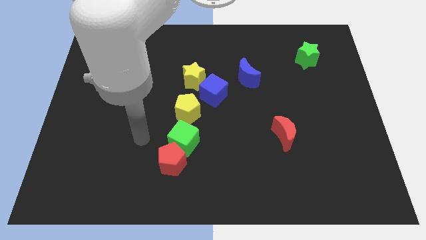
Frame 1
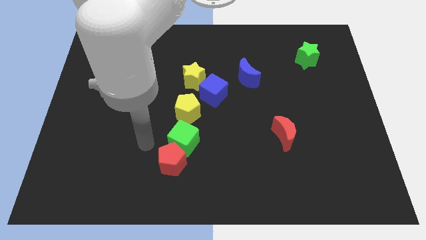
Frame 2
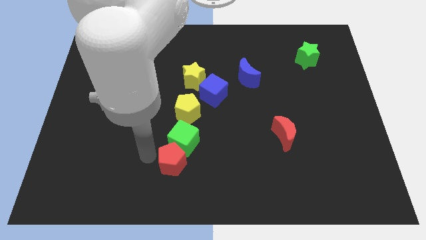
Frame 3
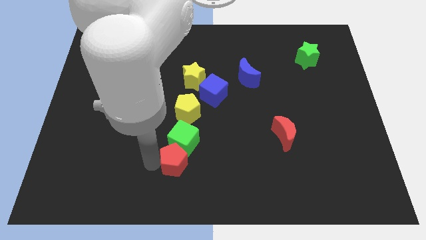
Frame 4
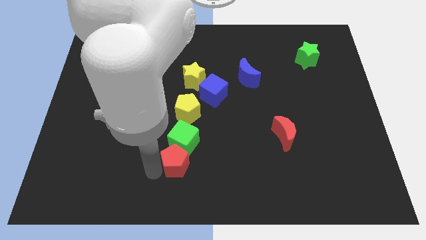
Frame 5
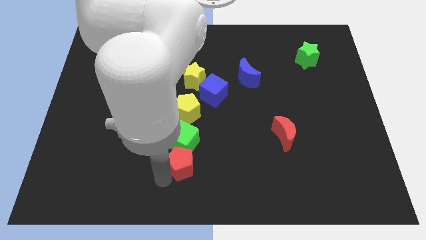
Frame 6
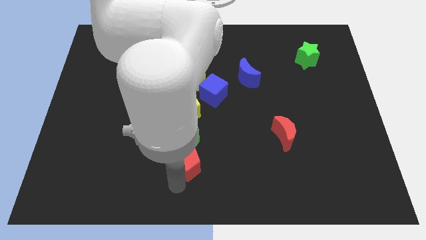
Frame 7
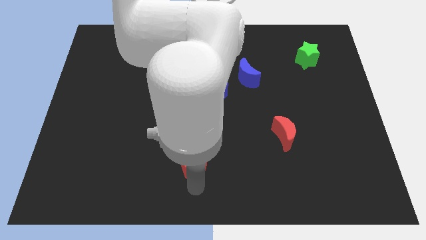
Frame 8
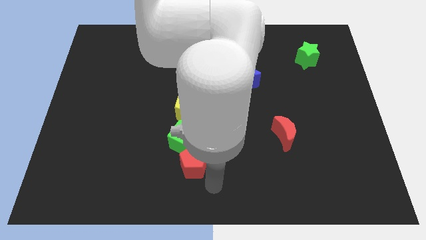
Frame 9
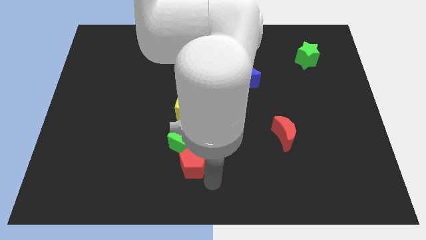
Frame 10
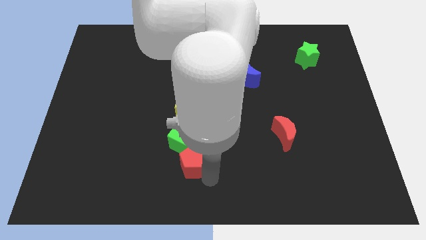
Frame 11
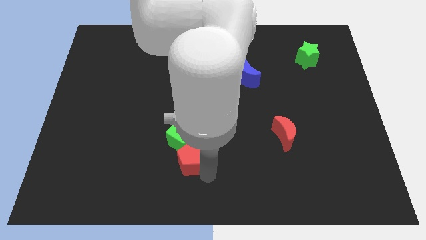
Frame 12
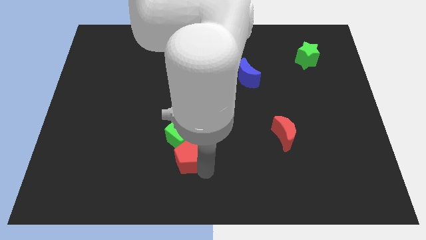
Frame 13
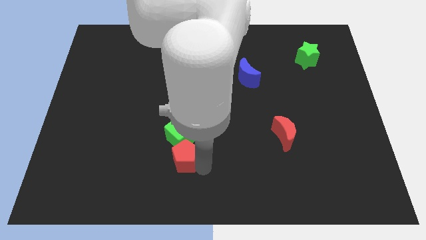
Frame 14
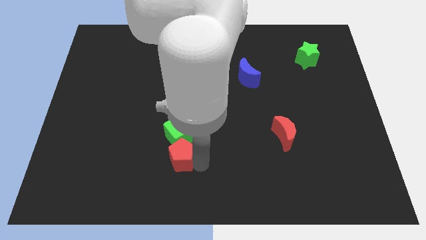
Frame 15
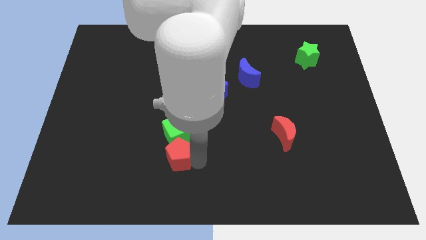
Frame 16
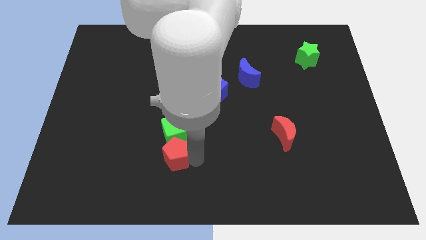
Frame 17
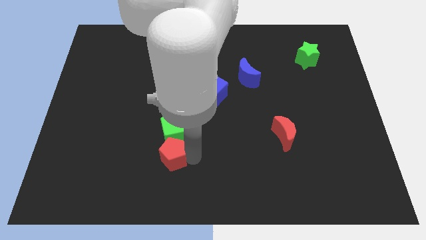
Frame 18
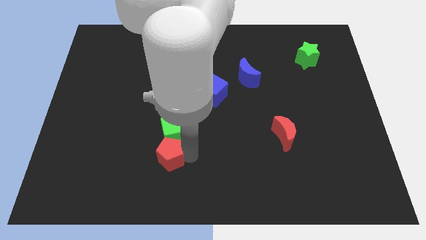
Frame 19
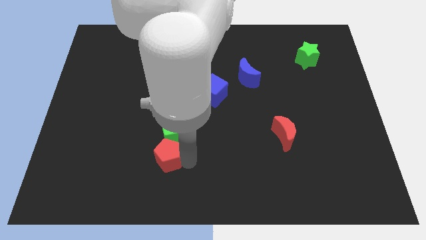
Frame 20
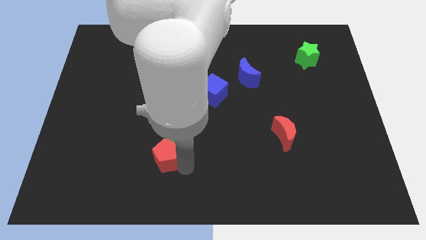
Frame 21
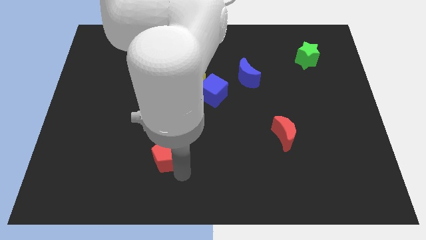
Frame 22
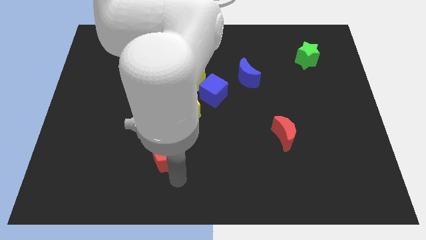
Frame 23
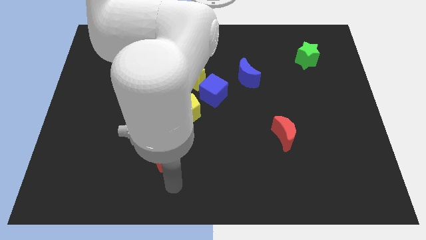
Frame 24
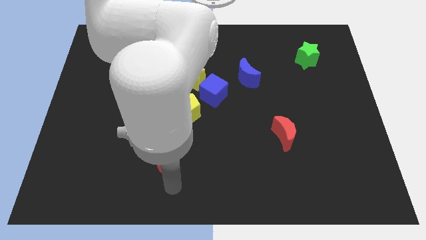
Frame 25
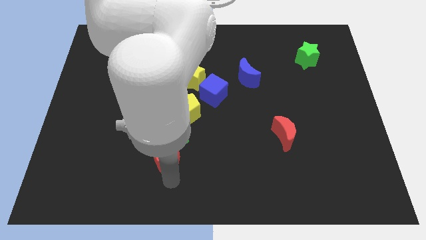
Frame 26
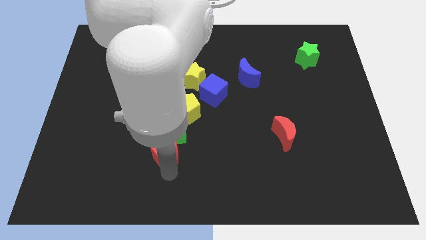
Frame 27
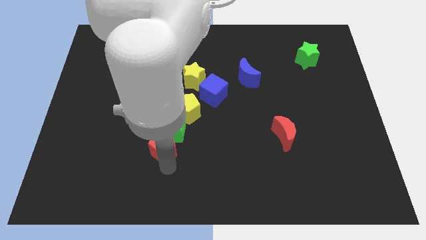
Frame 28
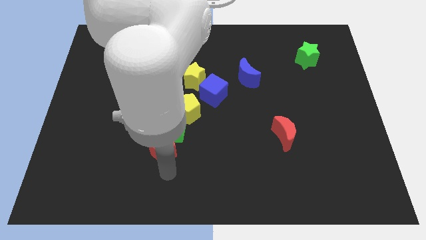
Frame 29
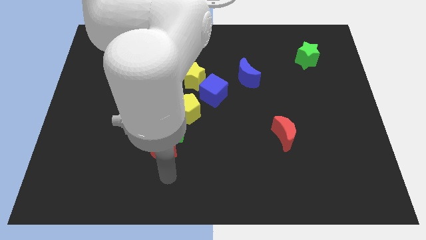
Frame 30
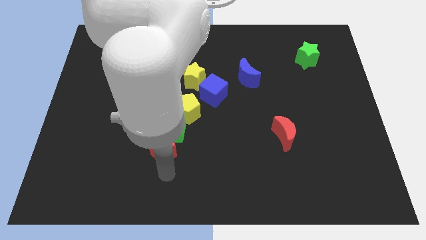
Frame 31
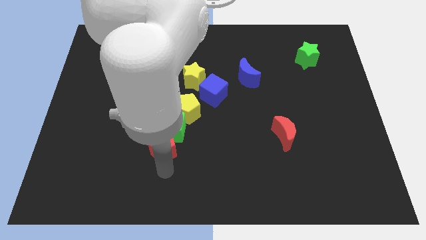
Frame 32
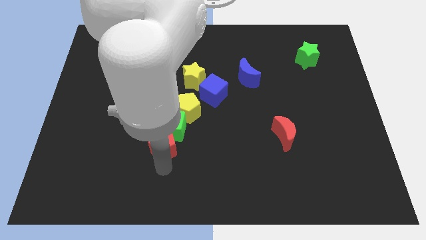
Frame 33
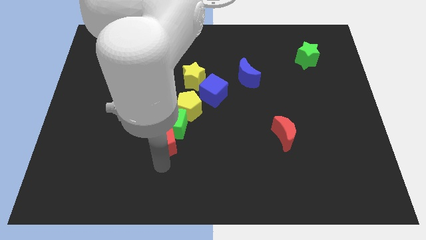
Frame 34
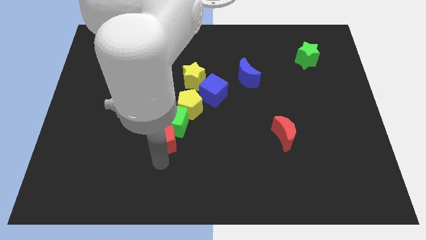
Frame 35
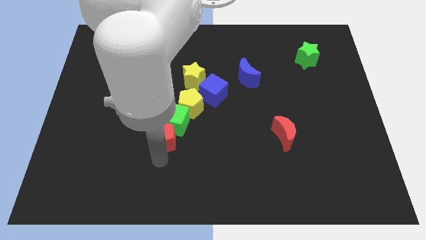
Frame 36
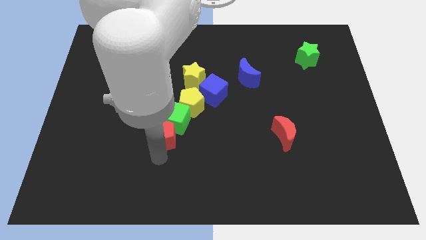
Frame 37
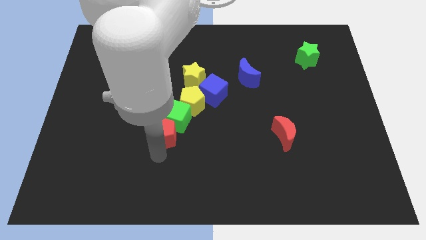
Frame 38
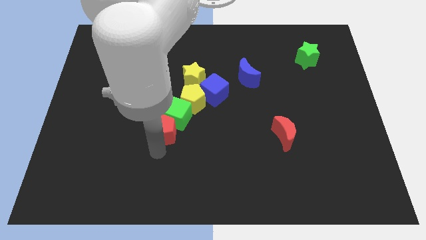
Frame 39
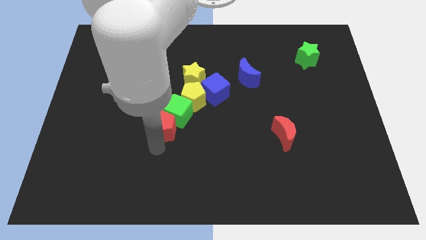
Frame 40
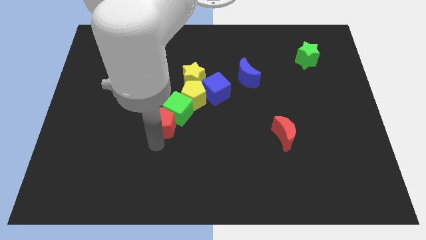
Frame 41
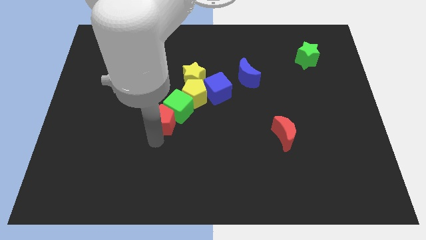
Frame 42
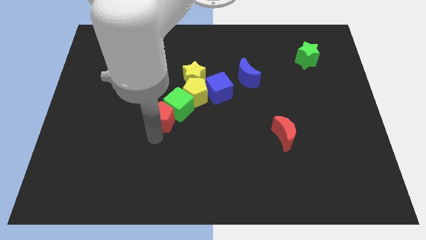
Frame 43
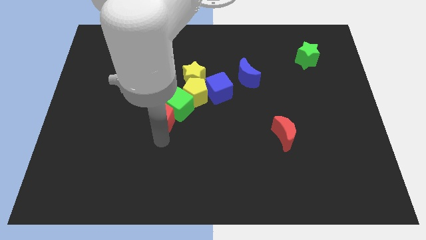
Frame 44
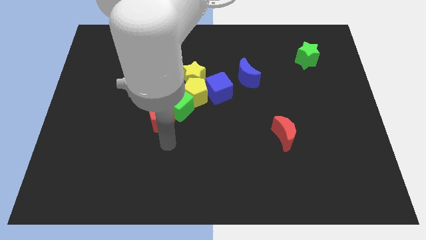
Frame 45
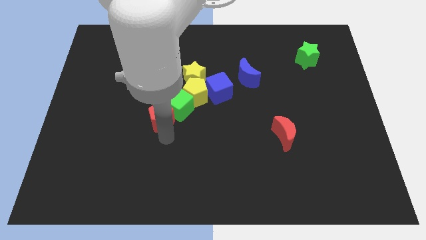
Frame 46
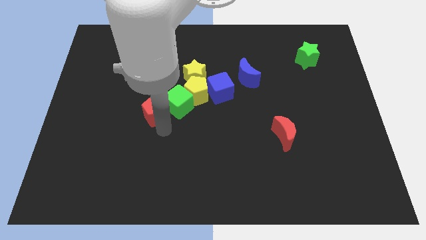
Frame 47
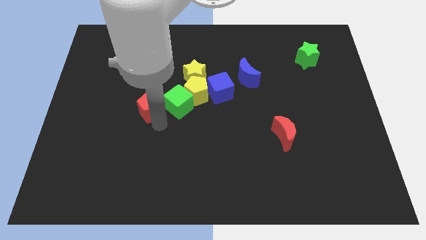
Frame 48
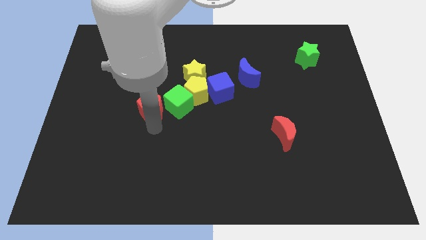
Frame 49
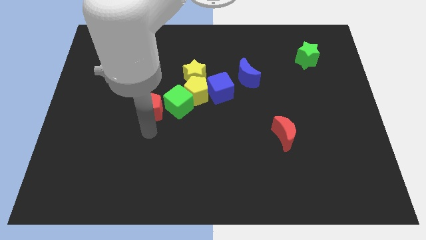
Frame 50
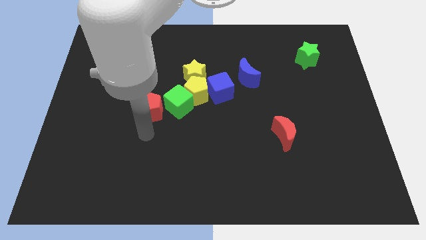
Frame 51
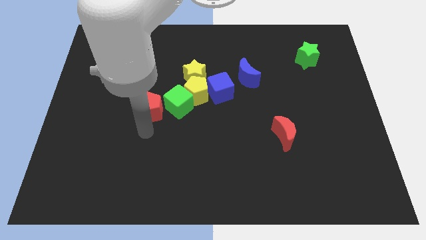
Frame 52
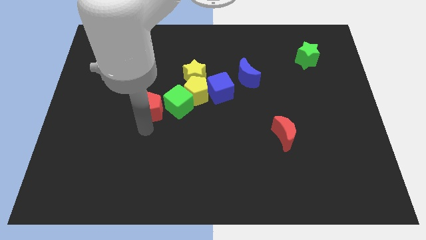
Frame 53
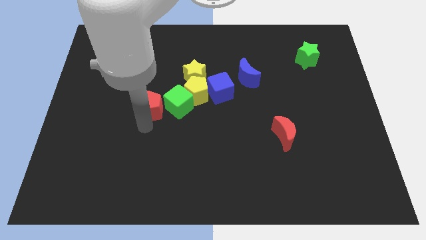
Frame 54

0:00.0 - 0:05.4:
move the red pentagon just left of the yellow pentagon

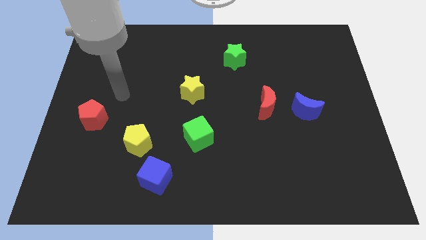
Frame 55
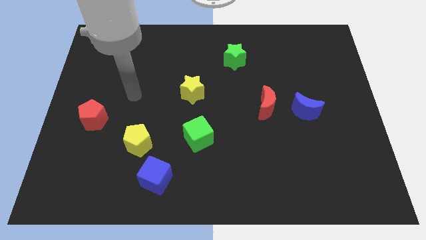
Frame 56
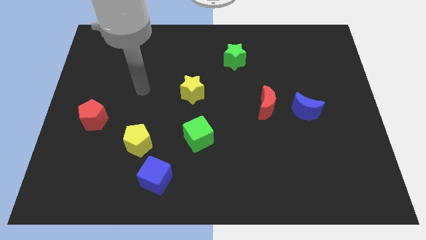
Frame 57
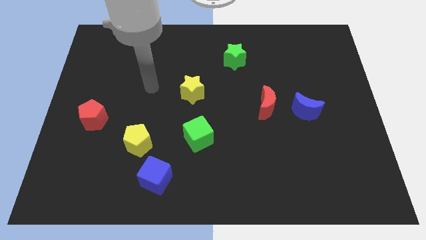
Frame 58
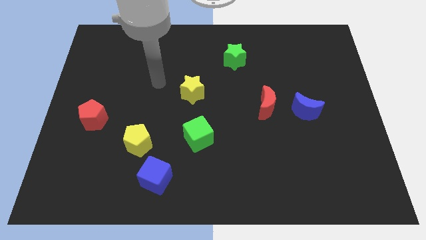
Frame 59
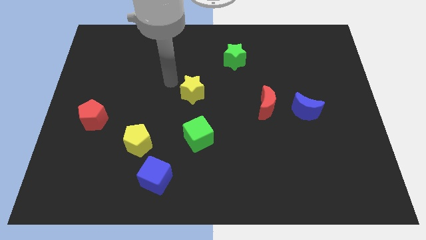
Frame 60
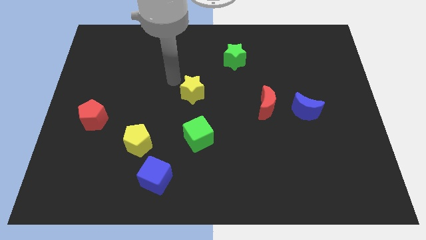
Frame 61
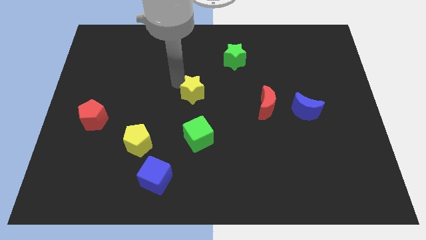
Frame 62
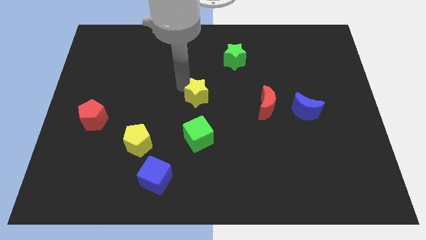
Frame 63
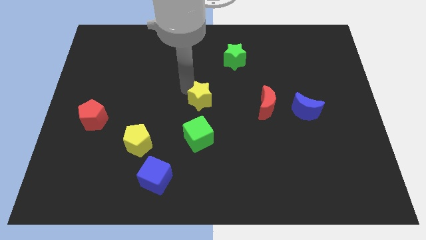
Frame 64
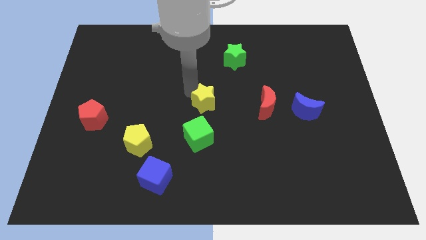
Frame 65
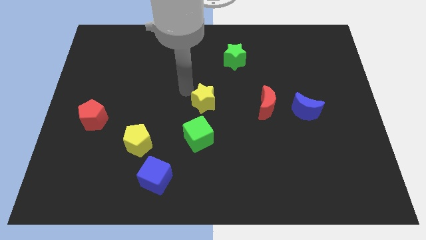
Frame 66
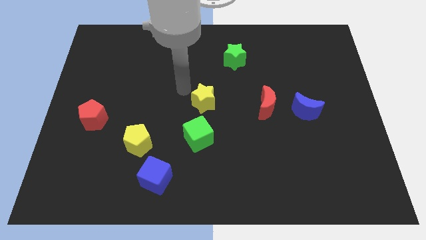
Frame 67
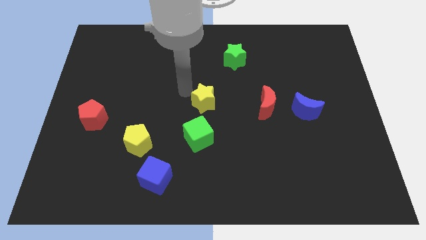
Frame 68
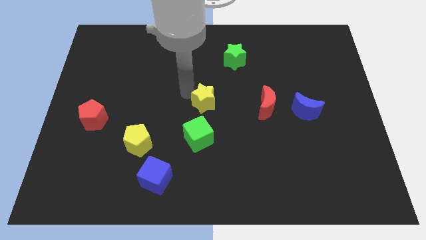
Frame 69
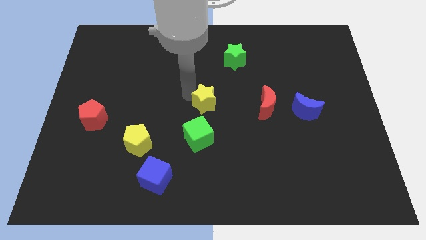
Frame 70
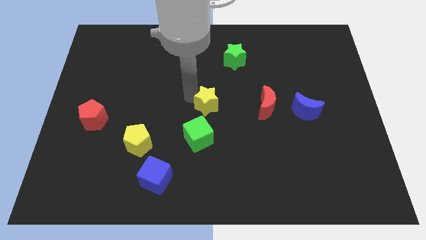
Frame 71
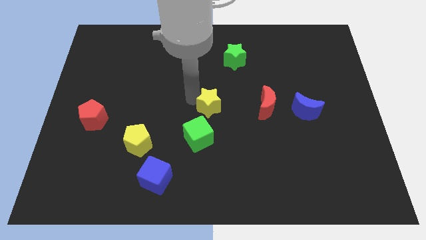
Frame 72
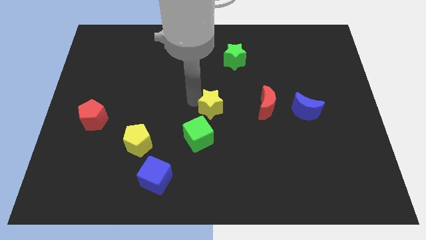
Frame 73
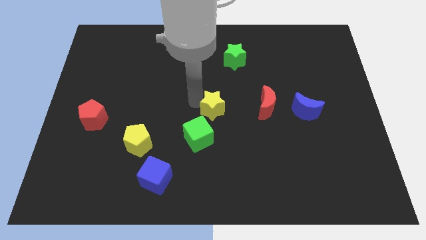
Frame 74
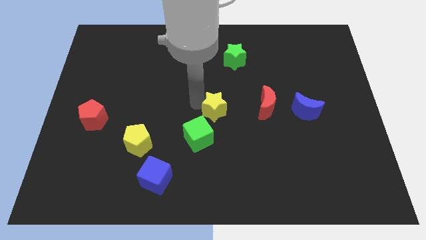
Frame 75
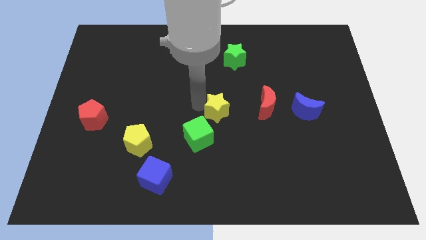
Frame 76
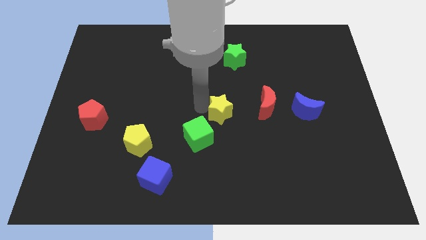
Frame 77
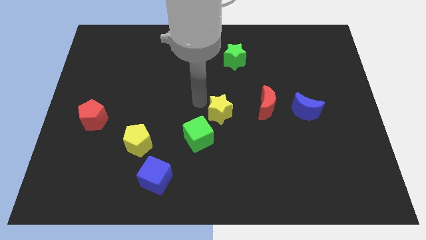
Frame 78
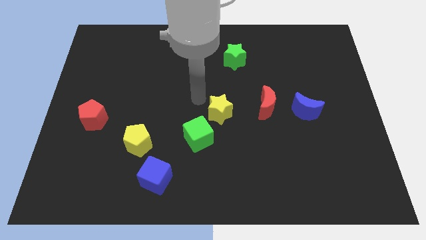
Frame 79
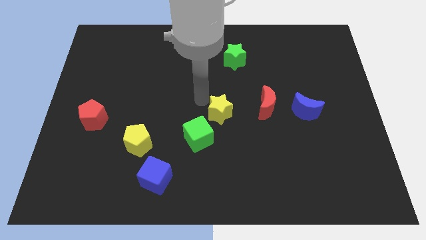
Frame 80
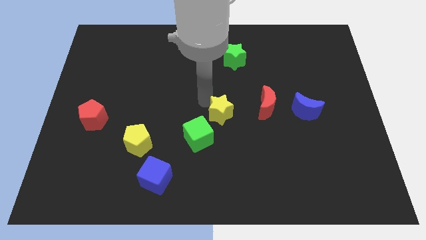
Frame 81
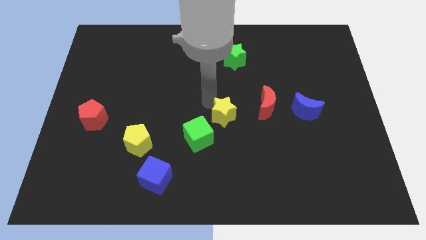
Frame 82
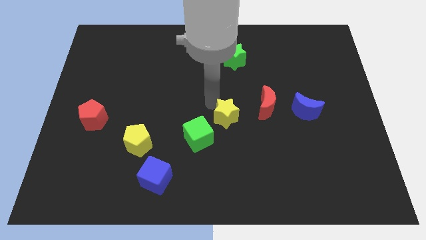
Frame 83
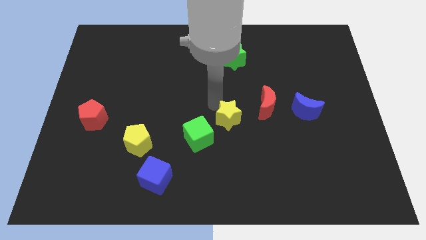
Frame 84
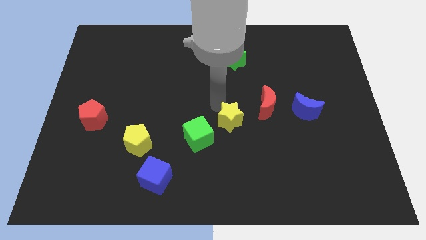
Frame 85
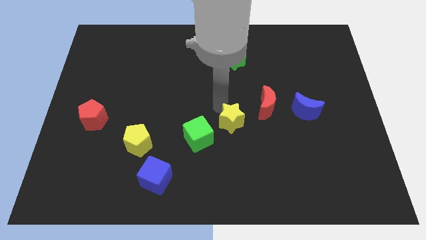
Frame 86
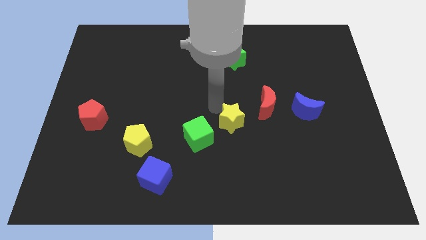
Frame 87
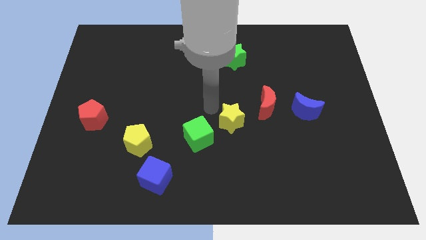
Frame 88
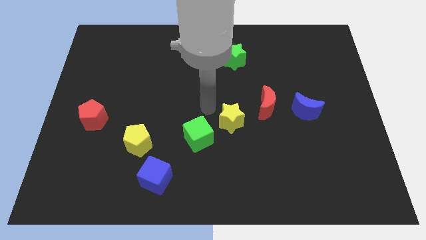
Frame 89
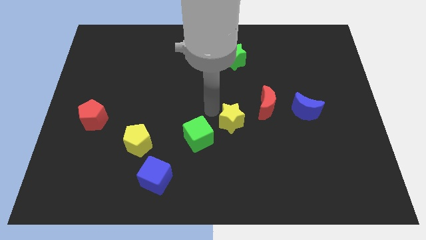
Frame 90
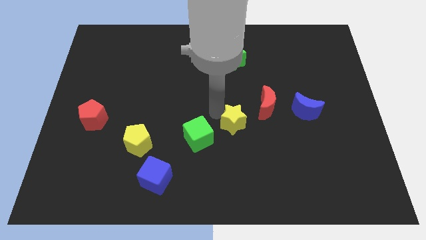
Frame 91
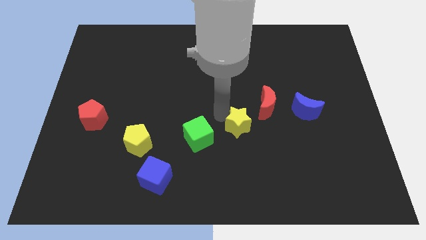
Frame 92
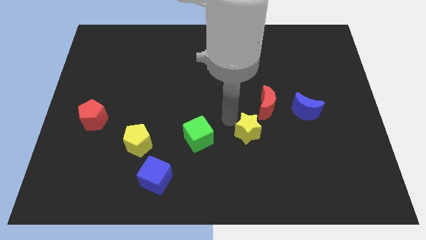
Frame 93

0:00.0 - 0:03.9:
move the yellow star to the bottom of the red moon
